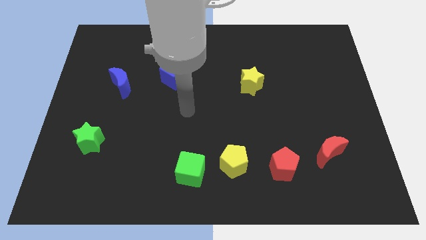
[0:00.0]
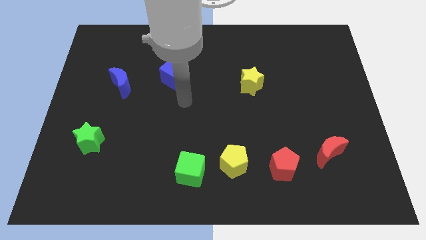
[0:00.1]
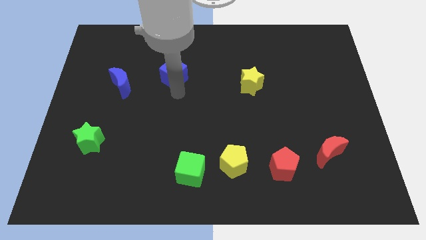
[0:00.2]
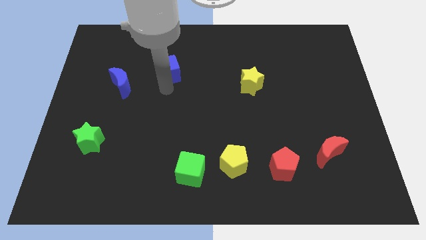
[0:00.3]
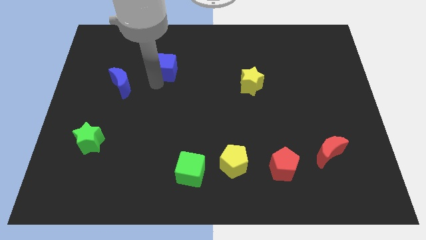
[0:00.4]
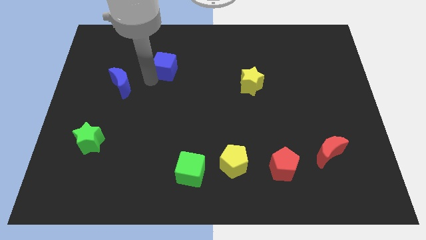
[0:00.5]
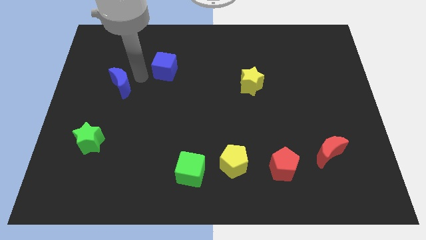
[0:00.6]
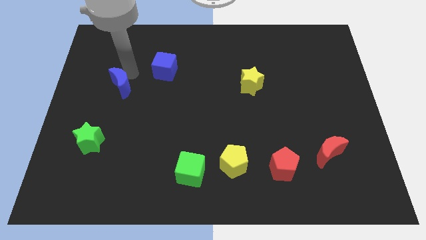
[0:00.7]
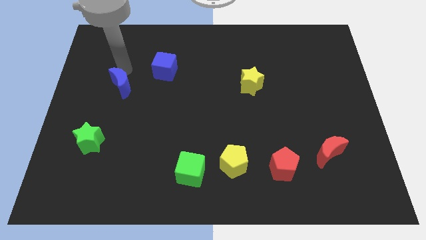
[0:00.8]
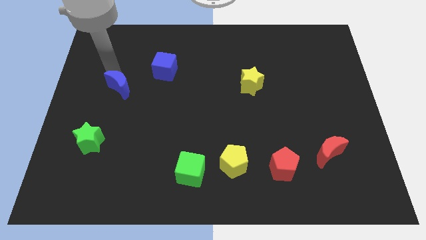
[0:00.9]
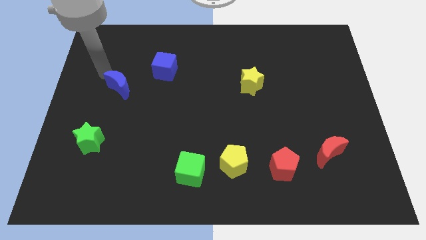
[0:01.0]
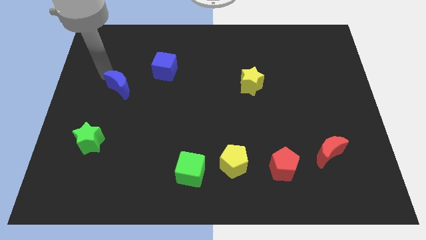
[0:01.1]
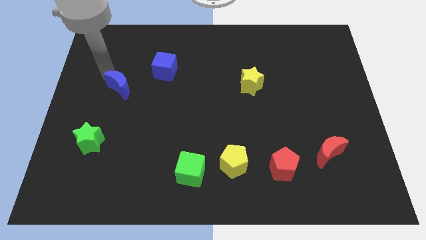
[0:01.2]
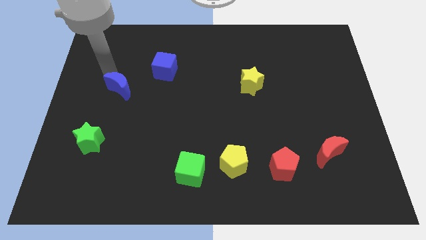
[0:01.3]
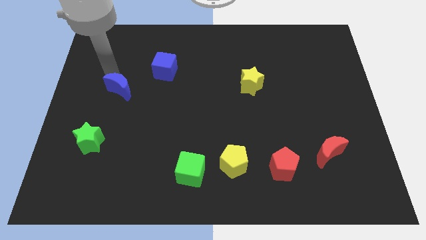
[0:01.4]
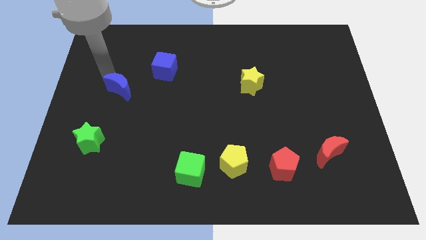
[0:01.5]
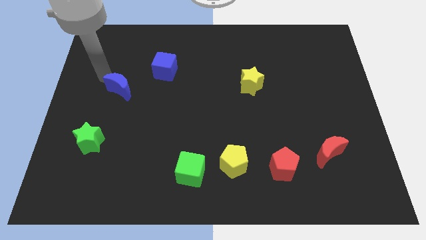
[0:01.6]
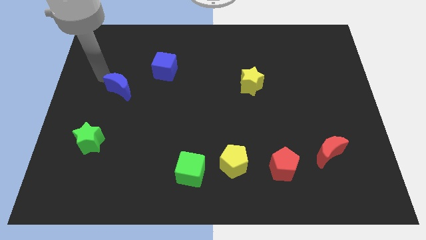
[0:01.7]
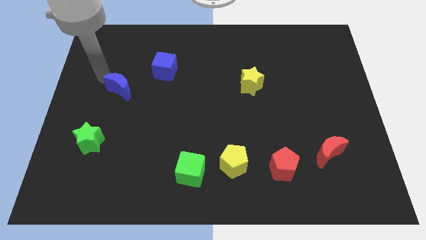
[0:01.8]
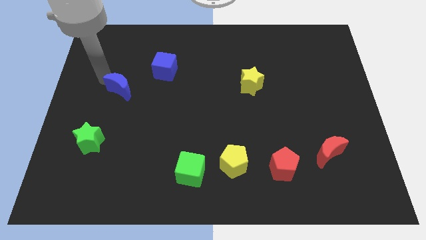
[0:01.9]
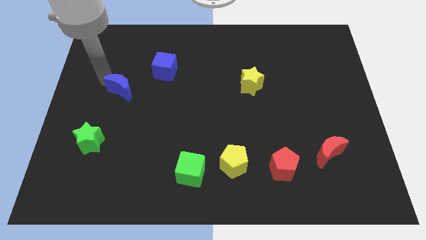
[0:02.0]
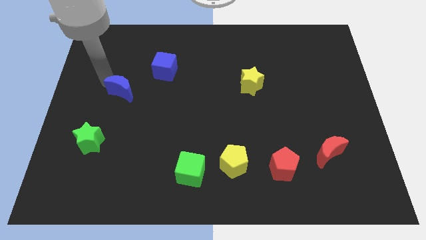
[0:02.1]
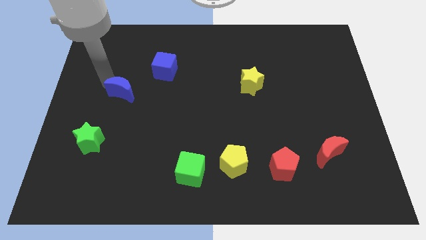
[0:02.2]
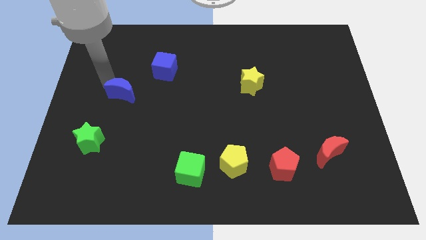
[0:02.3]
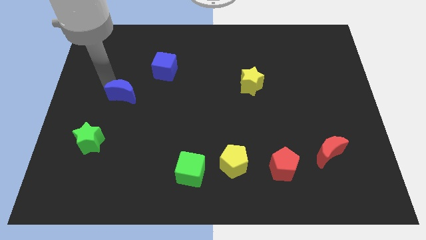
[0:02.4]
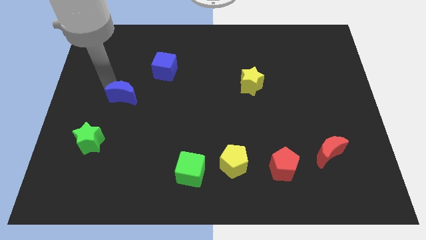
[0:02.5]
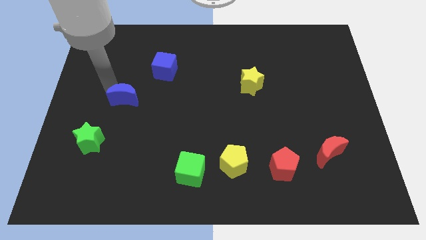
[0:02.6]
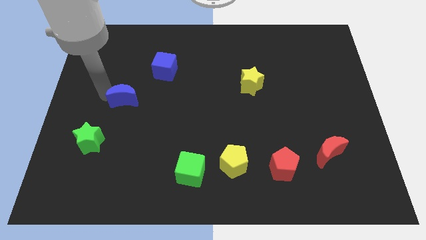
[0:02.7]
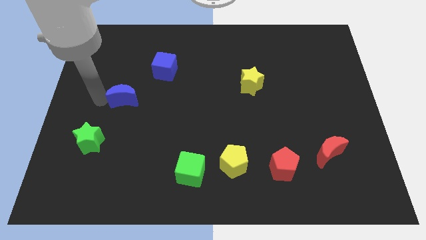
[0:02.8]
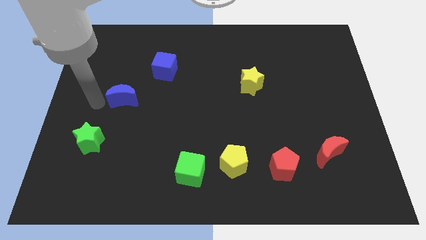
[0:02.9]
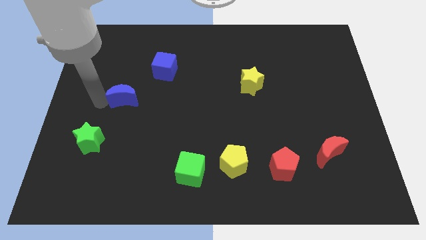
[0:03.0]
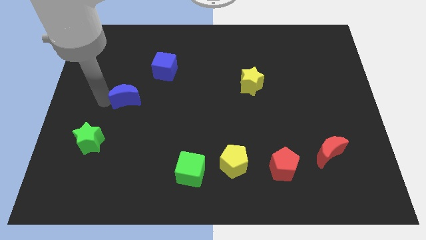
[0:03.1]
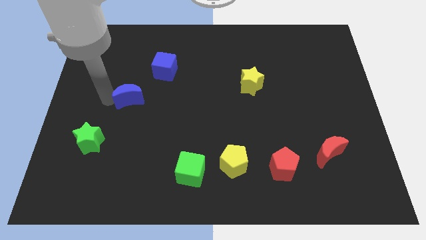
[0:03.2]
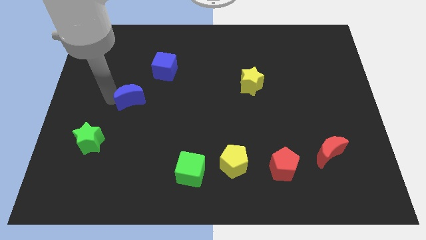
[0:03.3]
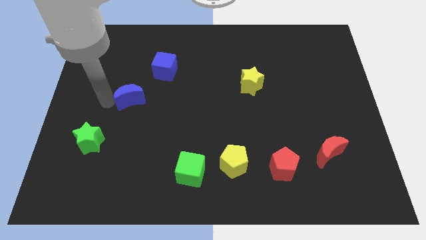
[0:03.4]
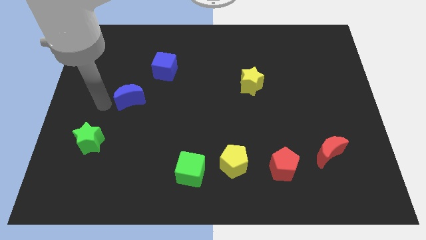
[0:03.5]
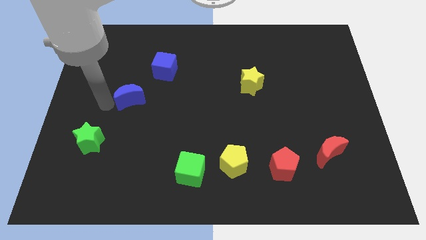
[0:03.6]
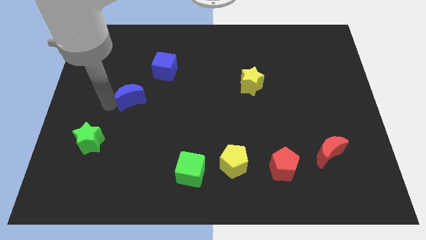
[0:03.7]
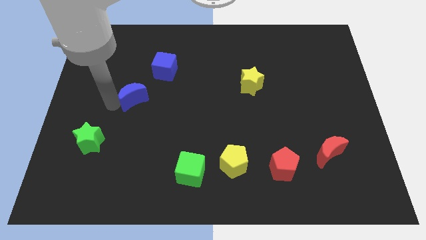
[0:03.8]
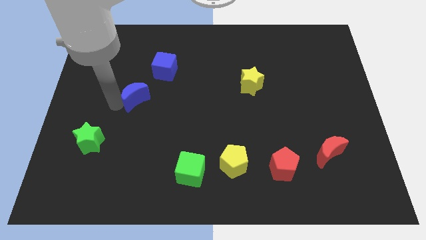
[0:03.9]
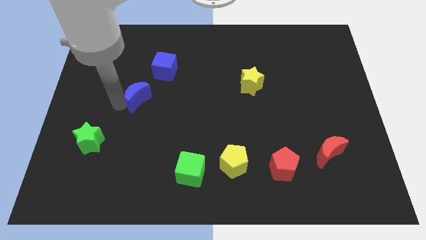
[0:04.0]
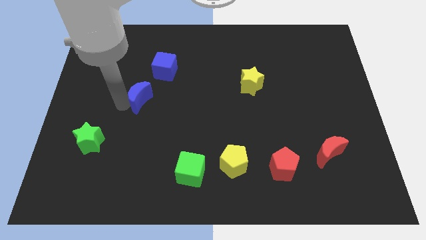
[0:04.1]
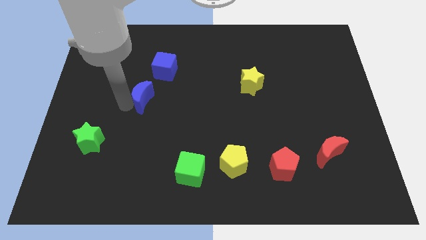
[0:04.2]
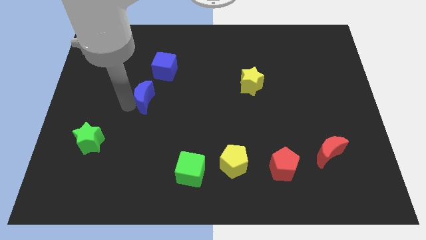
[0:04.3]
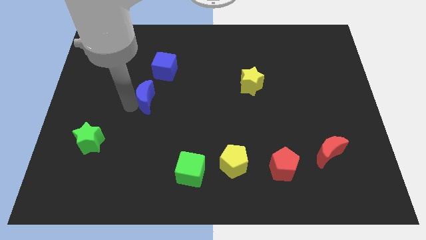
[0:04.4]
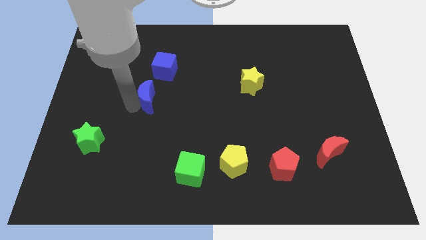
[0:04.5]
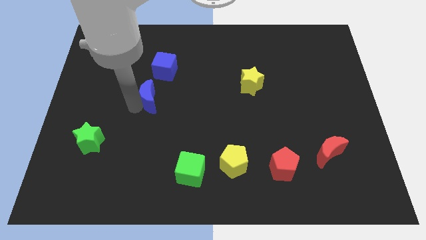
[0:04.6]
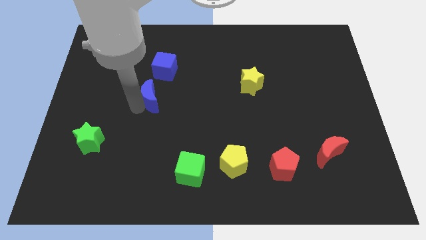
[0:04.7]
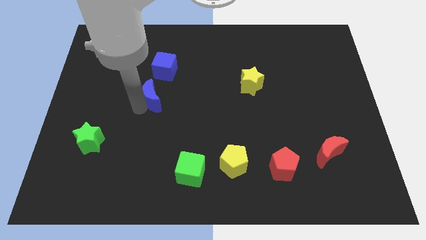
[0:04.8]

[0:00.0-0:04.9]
move the blue moon right slightly

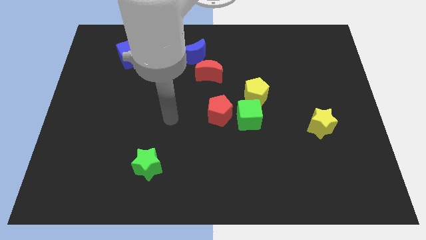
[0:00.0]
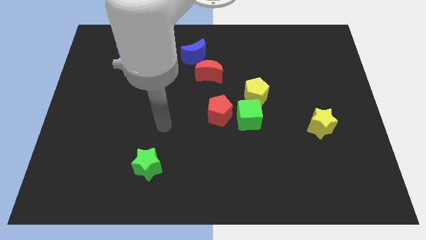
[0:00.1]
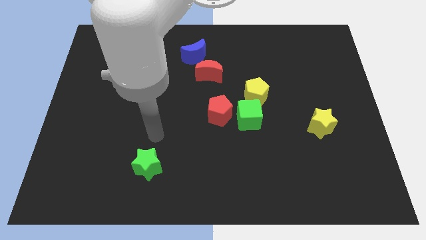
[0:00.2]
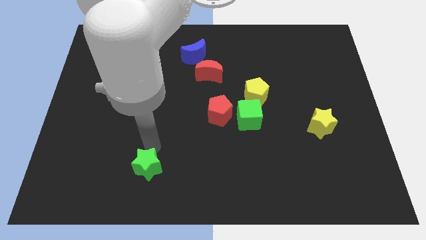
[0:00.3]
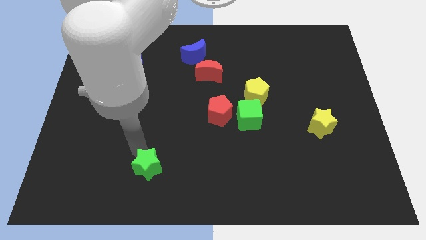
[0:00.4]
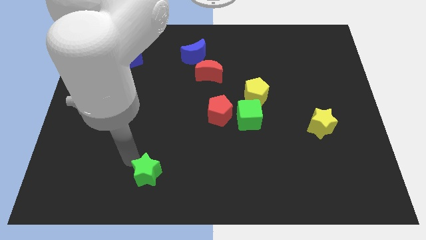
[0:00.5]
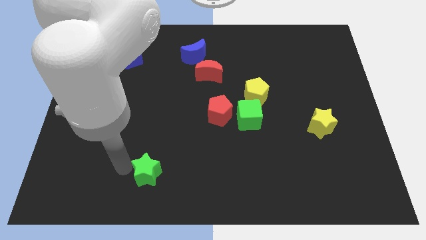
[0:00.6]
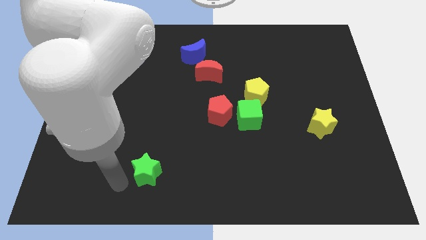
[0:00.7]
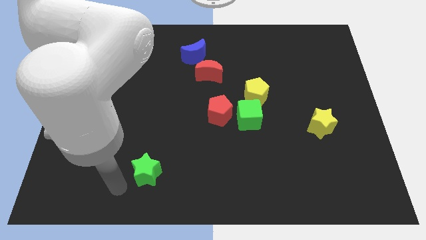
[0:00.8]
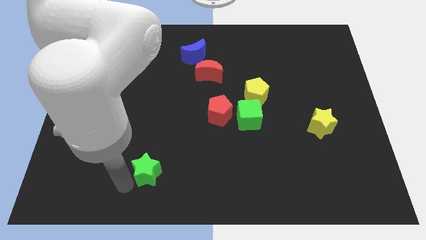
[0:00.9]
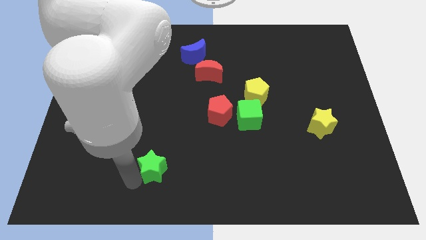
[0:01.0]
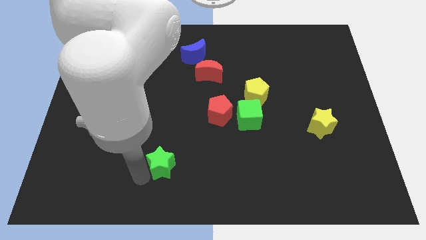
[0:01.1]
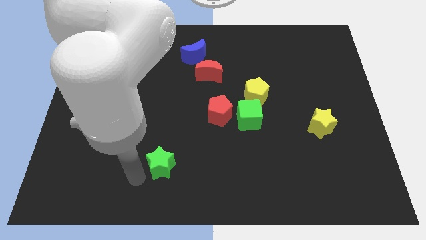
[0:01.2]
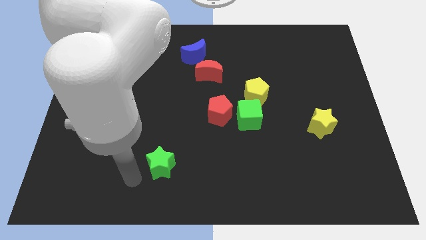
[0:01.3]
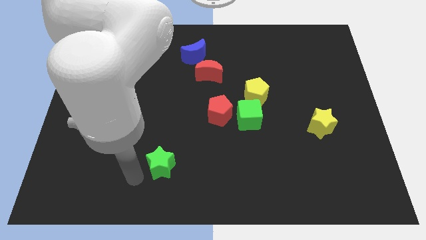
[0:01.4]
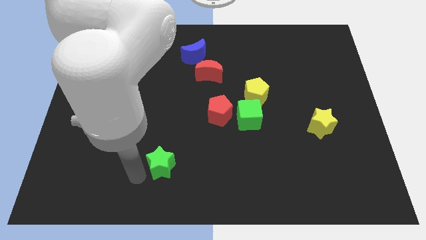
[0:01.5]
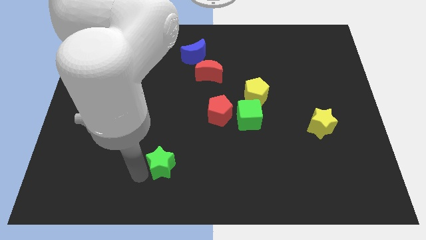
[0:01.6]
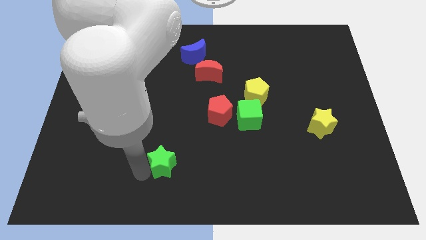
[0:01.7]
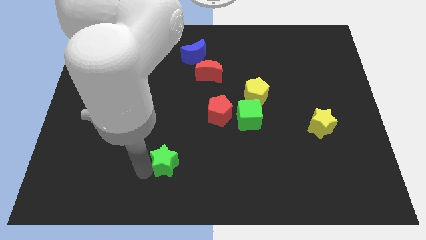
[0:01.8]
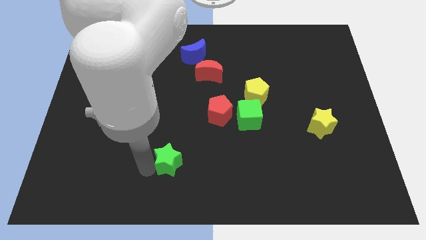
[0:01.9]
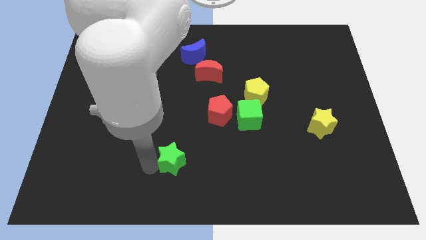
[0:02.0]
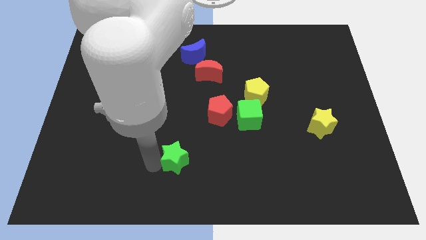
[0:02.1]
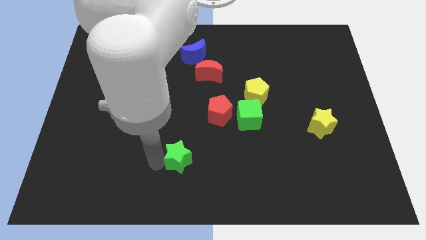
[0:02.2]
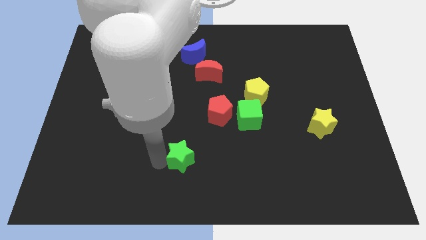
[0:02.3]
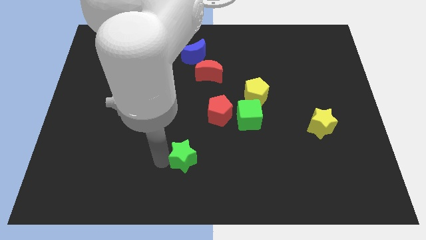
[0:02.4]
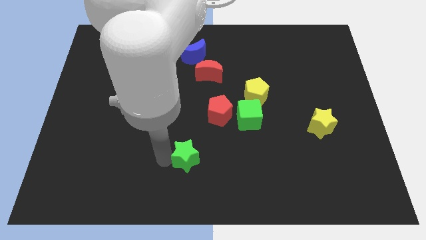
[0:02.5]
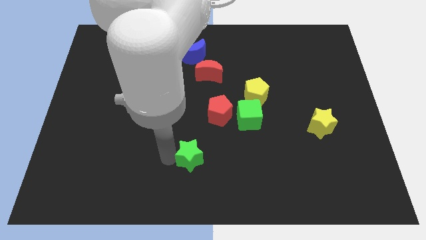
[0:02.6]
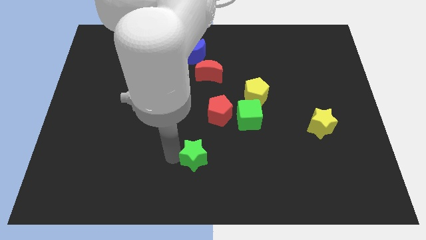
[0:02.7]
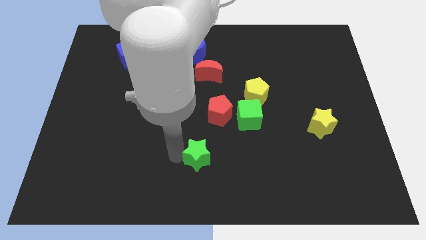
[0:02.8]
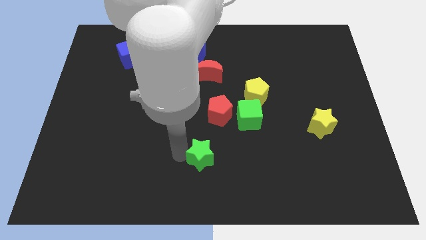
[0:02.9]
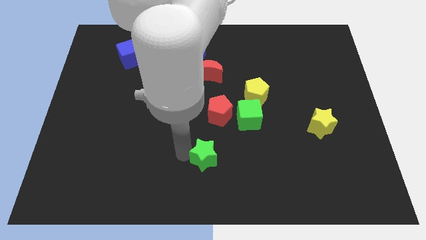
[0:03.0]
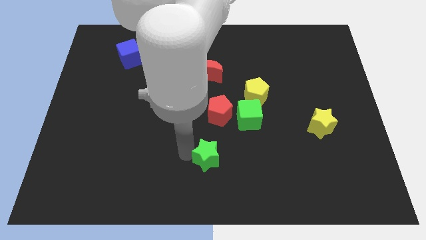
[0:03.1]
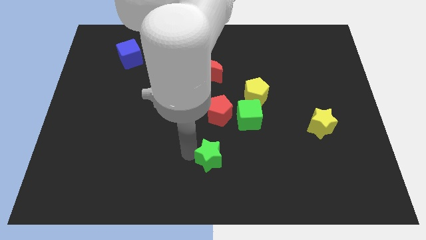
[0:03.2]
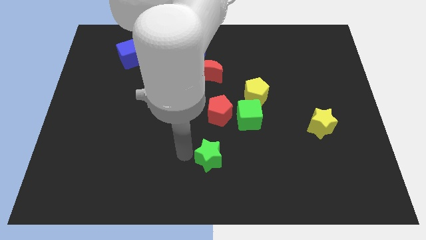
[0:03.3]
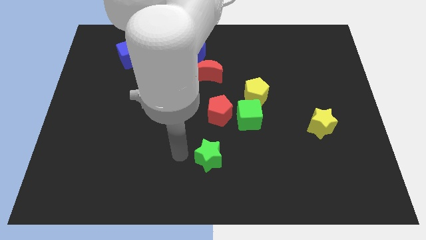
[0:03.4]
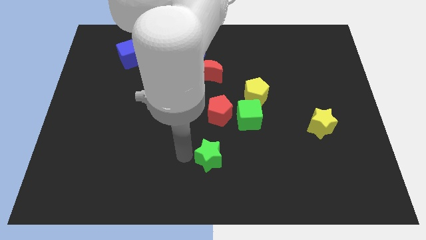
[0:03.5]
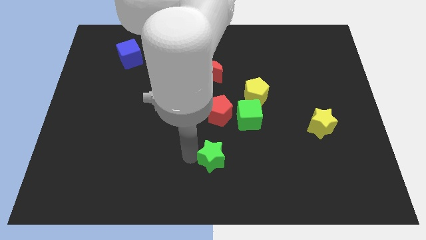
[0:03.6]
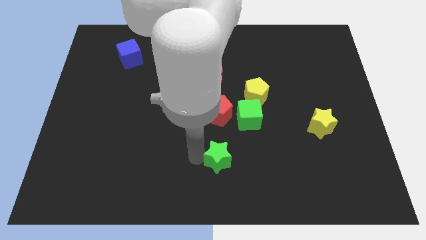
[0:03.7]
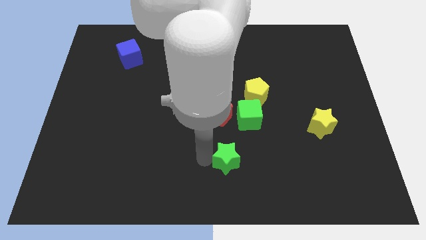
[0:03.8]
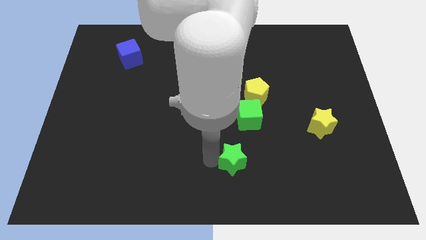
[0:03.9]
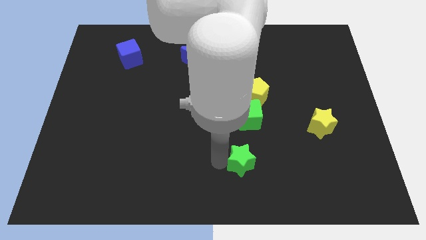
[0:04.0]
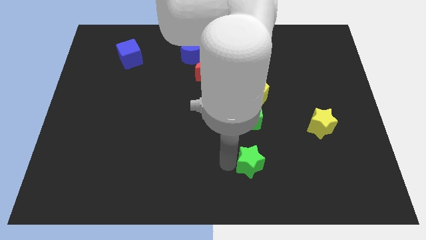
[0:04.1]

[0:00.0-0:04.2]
move the green star right
